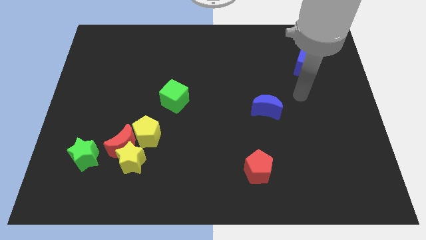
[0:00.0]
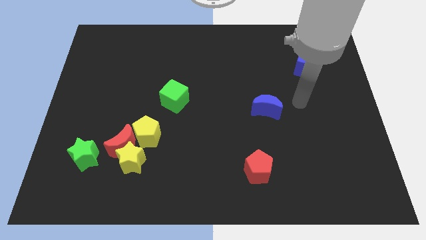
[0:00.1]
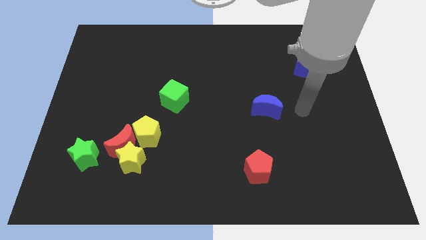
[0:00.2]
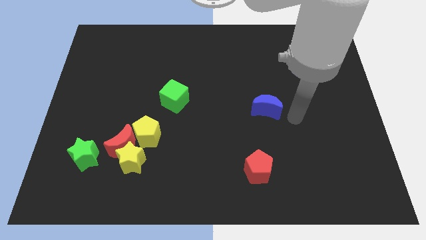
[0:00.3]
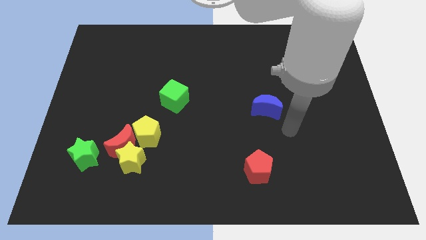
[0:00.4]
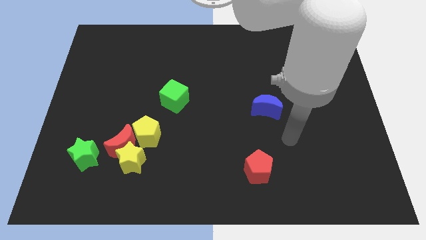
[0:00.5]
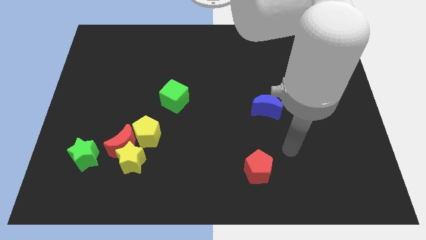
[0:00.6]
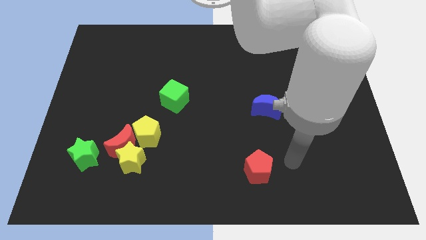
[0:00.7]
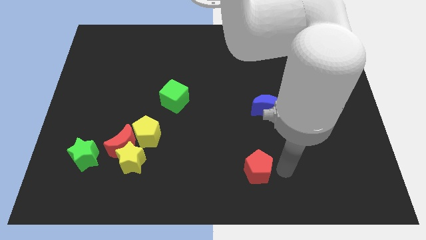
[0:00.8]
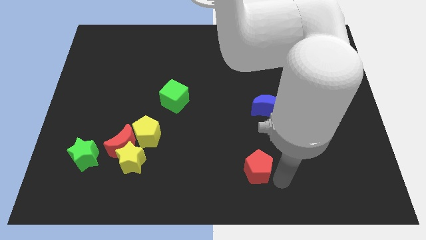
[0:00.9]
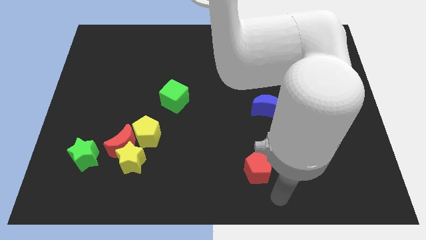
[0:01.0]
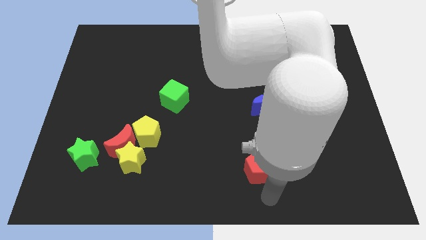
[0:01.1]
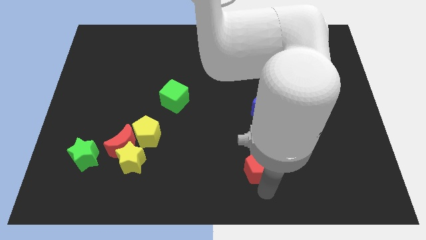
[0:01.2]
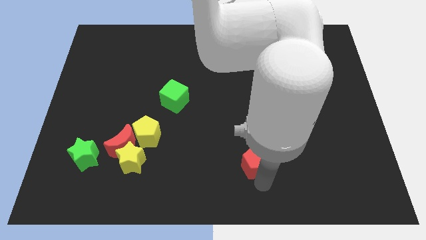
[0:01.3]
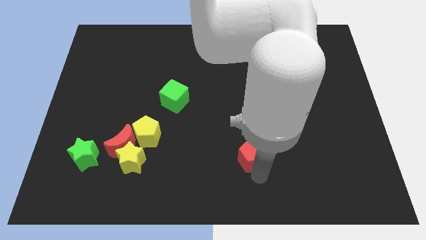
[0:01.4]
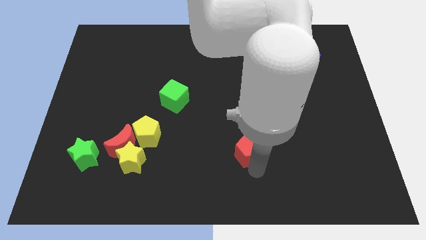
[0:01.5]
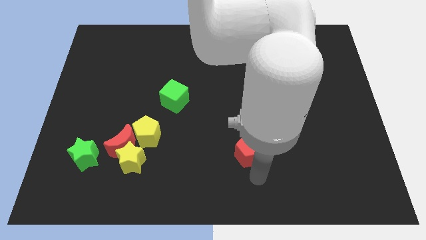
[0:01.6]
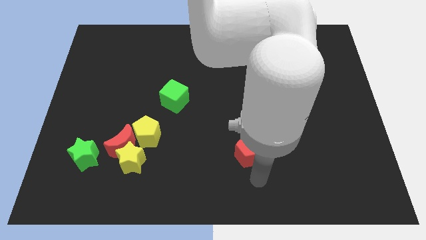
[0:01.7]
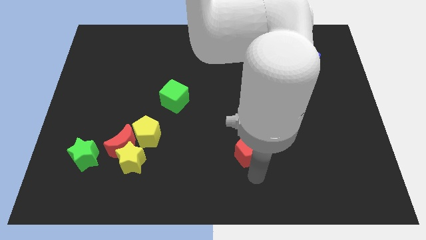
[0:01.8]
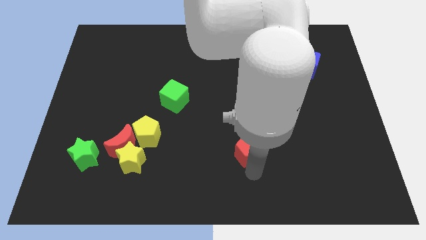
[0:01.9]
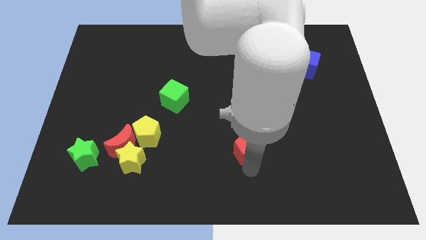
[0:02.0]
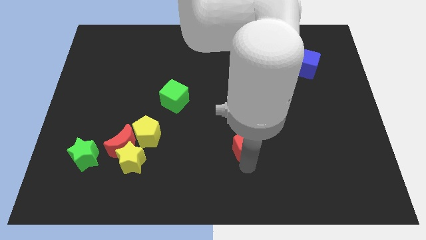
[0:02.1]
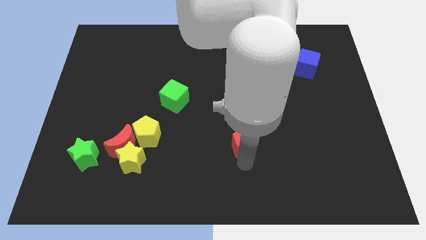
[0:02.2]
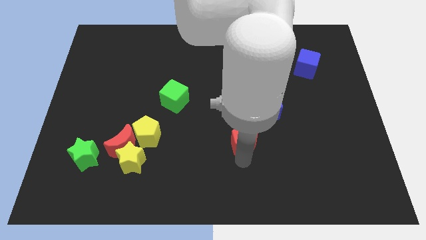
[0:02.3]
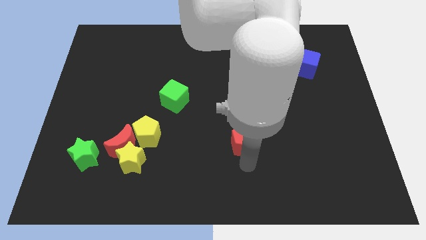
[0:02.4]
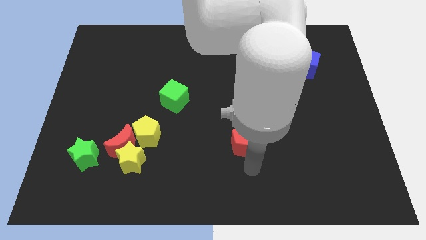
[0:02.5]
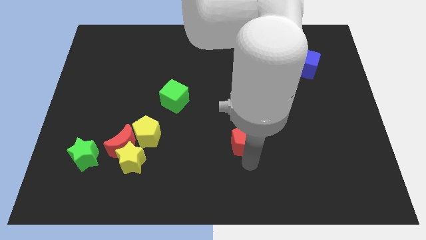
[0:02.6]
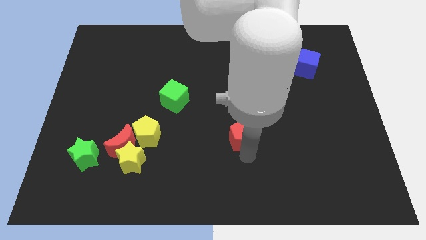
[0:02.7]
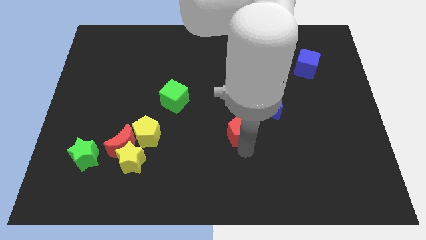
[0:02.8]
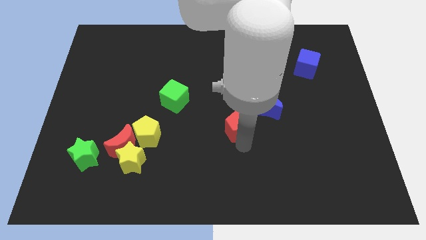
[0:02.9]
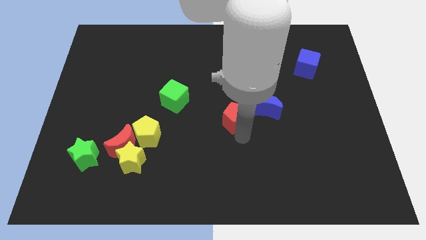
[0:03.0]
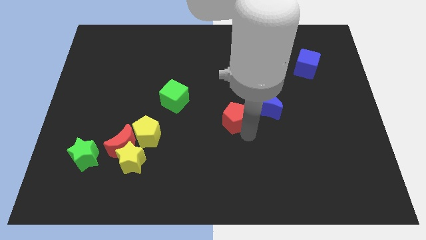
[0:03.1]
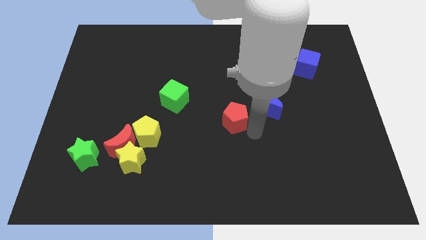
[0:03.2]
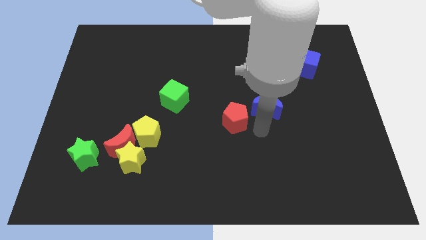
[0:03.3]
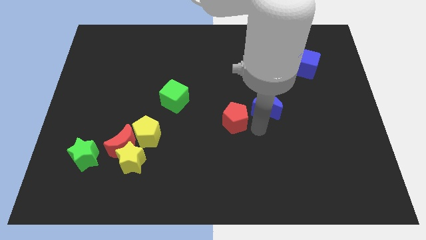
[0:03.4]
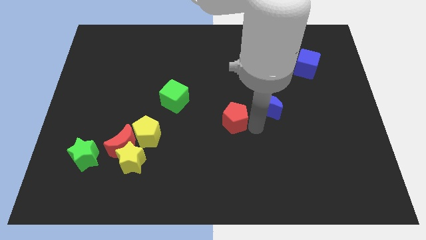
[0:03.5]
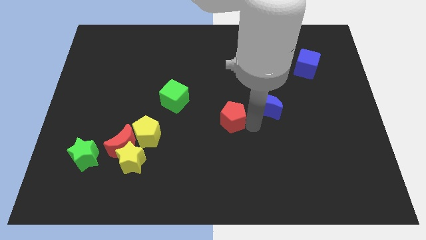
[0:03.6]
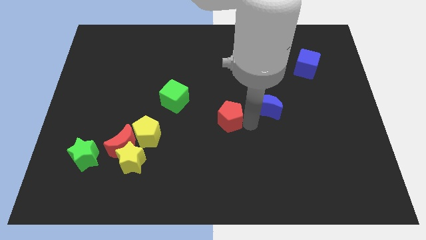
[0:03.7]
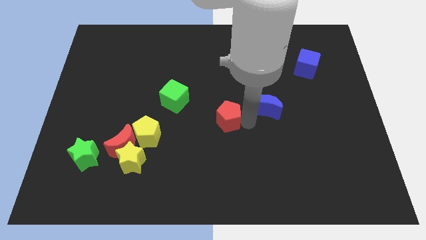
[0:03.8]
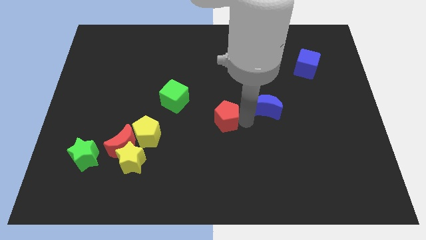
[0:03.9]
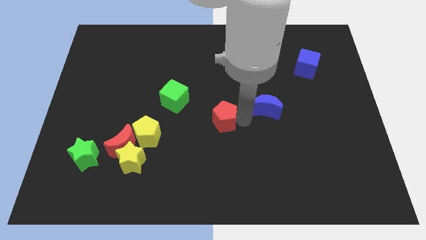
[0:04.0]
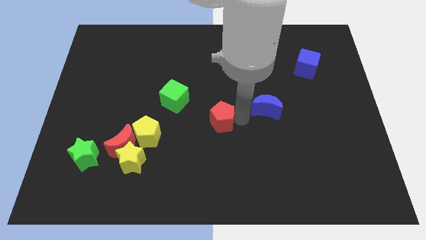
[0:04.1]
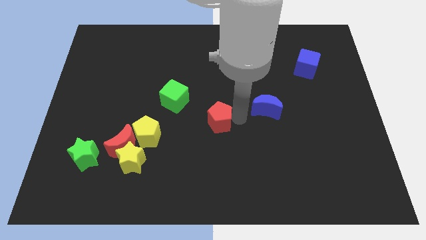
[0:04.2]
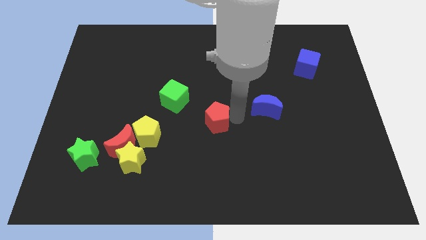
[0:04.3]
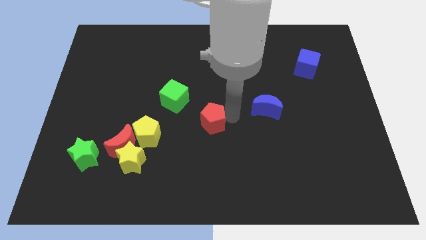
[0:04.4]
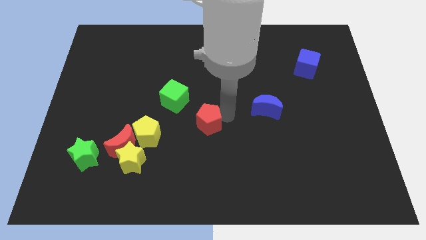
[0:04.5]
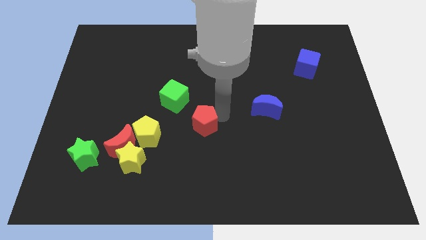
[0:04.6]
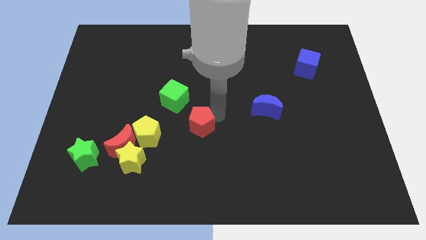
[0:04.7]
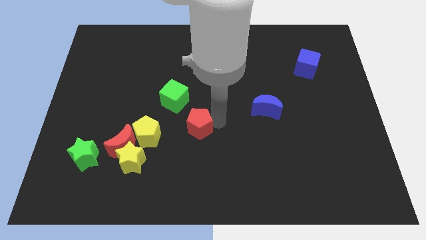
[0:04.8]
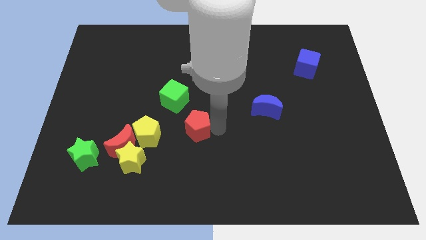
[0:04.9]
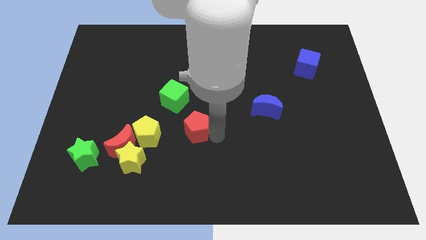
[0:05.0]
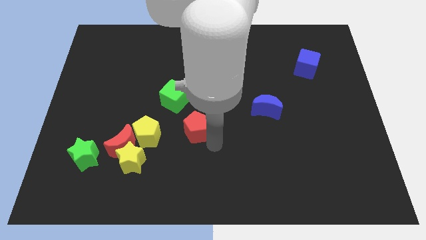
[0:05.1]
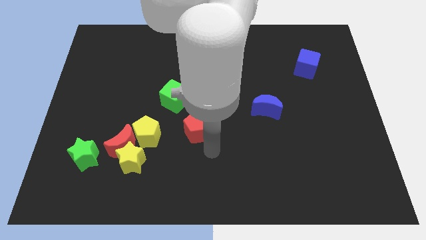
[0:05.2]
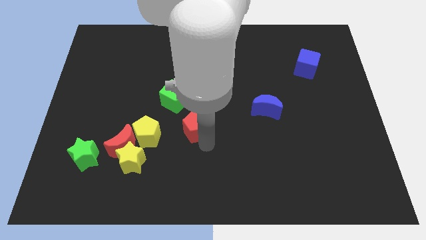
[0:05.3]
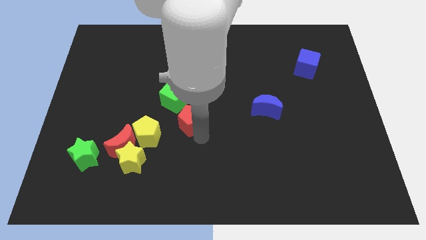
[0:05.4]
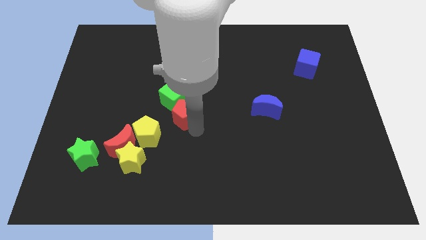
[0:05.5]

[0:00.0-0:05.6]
move the red pentagon next to the green cube

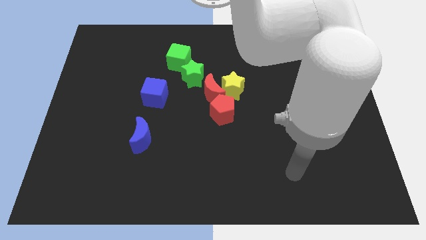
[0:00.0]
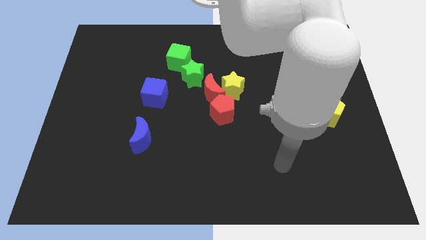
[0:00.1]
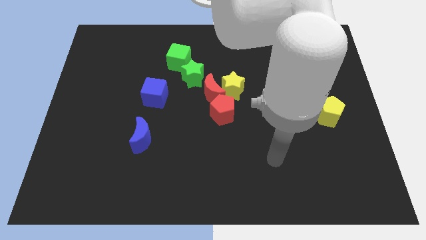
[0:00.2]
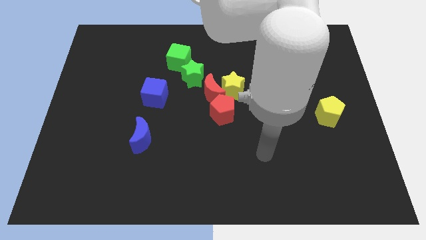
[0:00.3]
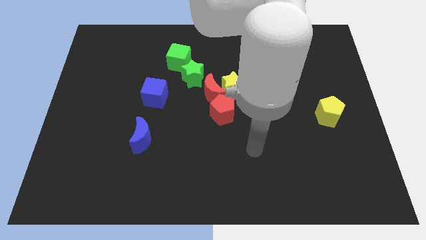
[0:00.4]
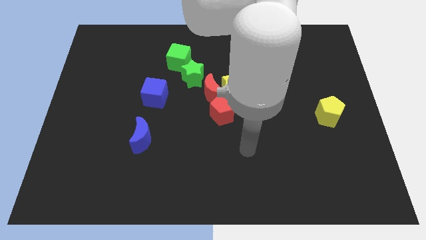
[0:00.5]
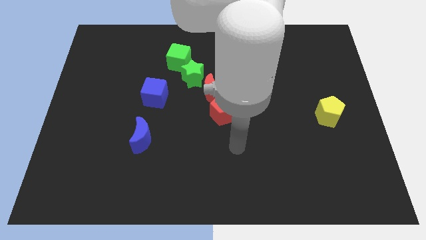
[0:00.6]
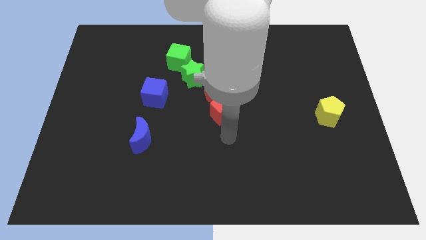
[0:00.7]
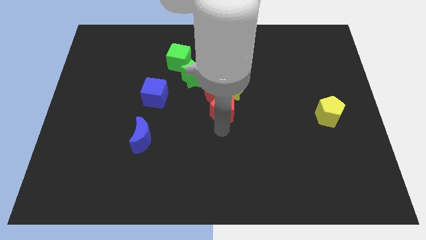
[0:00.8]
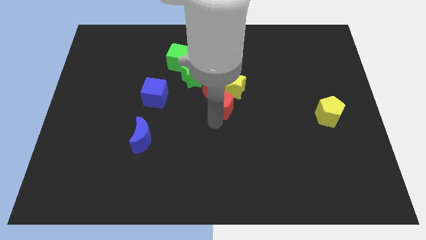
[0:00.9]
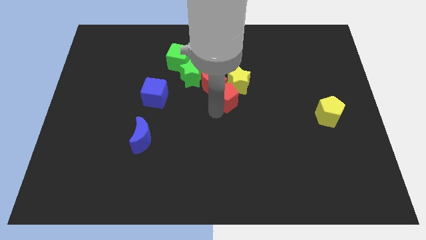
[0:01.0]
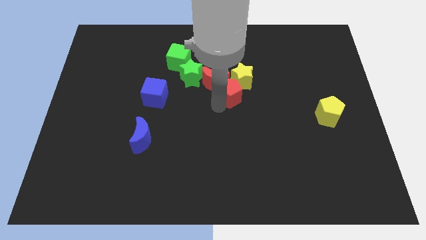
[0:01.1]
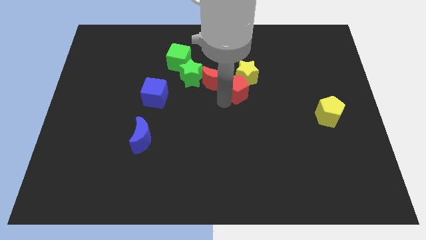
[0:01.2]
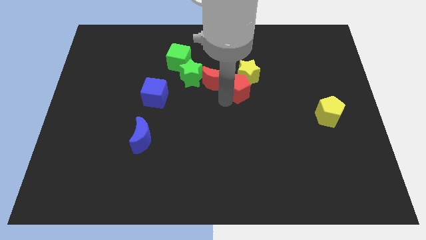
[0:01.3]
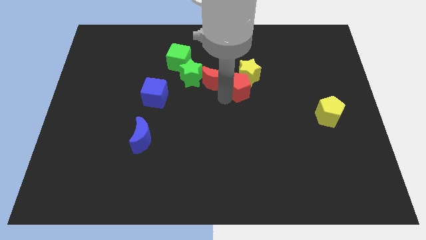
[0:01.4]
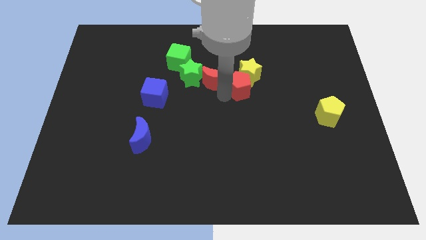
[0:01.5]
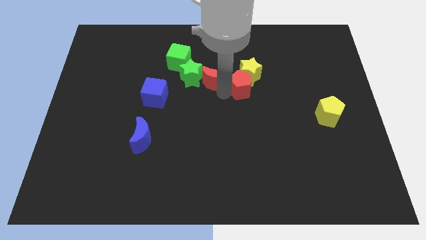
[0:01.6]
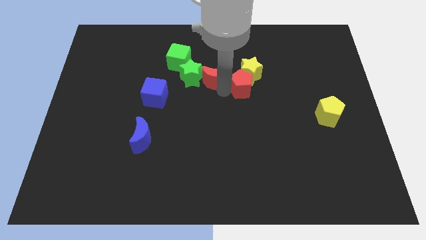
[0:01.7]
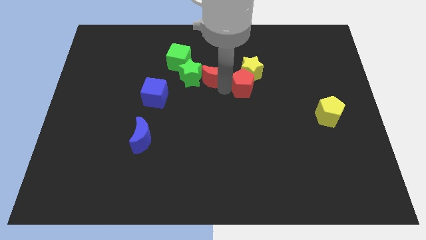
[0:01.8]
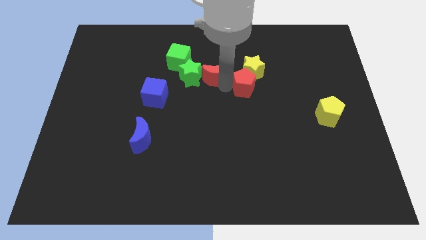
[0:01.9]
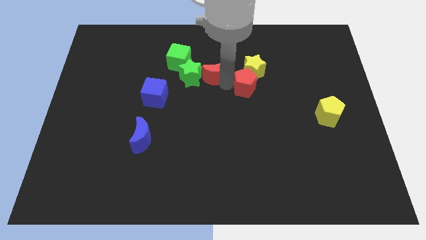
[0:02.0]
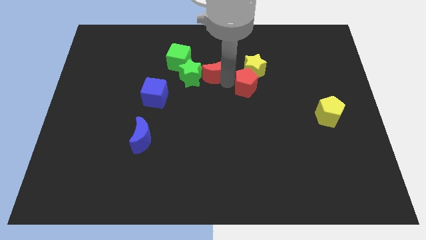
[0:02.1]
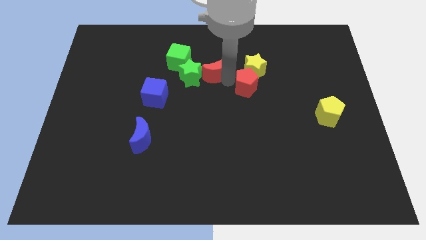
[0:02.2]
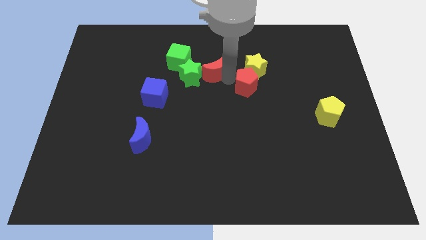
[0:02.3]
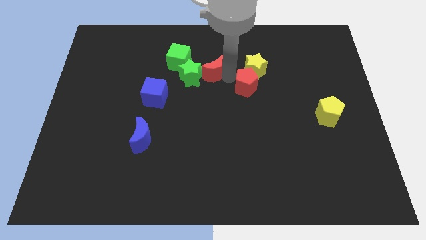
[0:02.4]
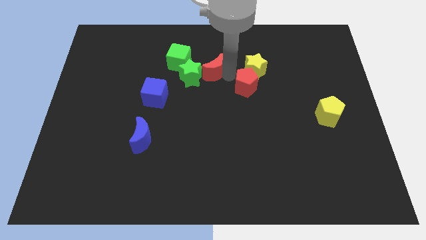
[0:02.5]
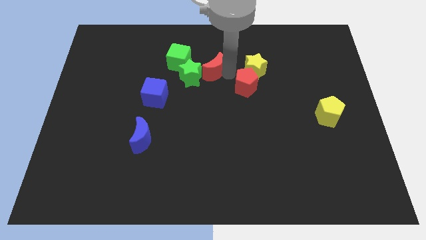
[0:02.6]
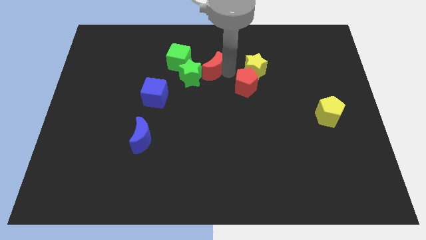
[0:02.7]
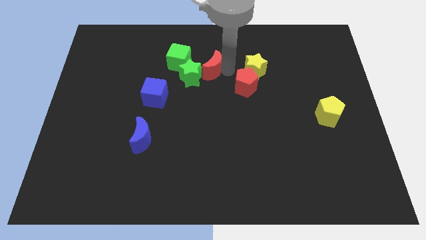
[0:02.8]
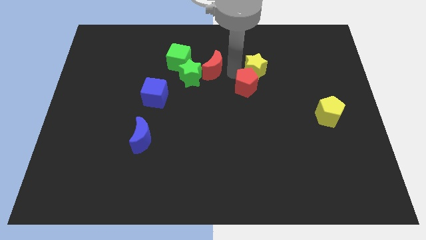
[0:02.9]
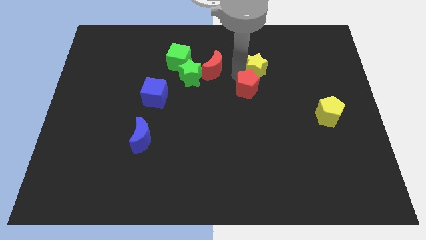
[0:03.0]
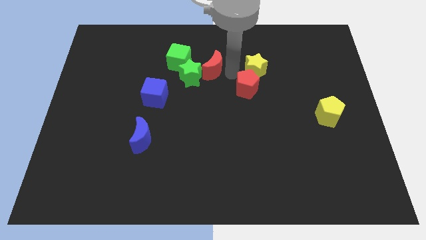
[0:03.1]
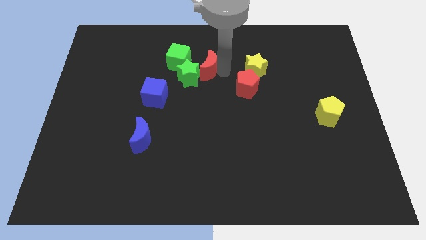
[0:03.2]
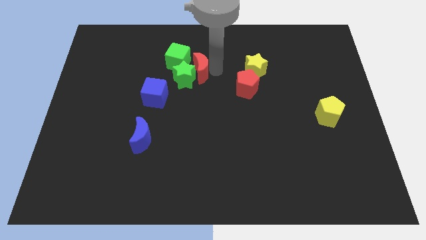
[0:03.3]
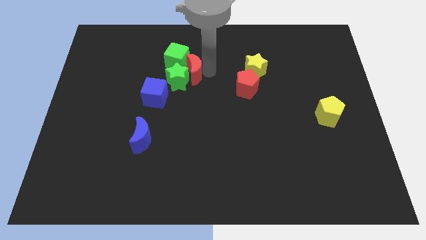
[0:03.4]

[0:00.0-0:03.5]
put the red moon close to the green cube
